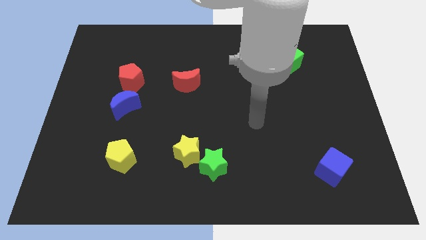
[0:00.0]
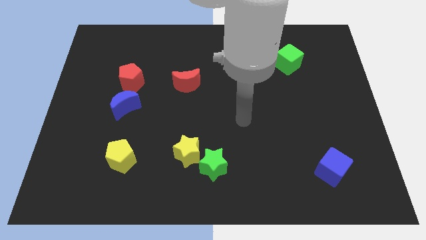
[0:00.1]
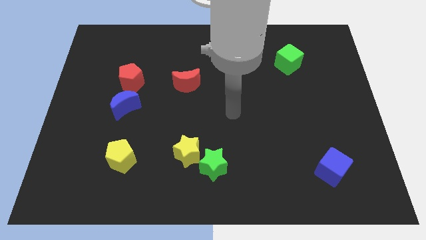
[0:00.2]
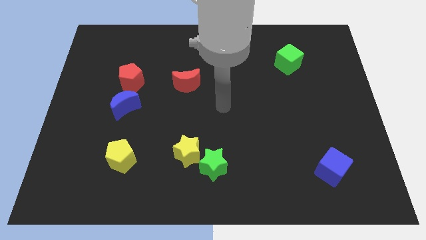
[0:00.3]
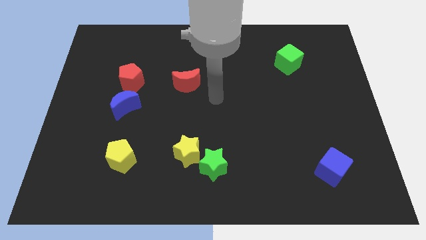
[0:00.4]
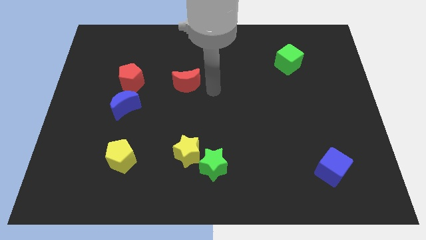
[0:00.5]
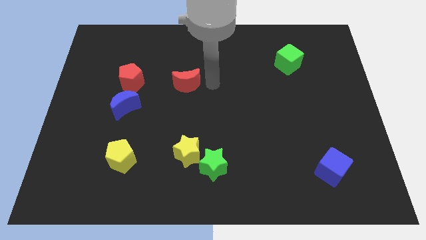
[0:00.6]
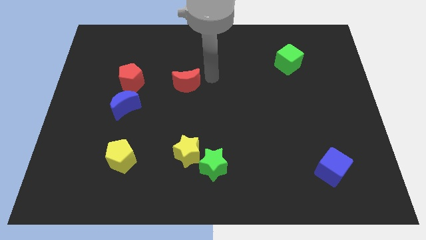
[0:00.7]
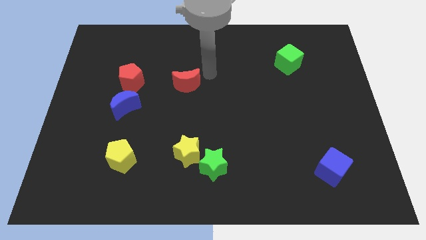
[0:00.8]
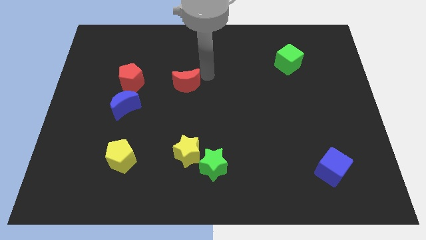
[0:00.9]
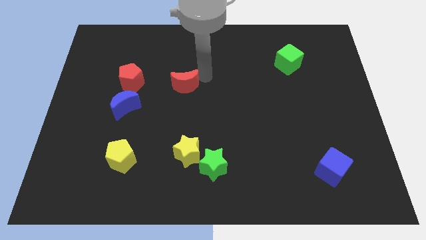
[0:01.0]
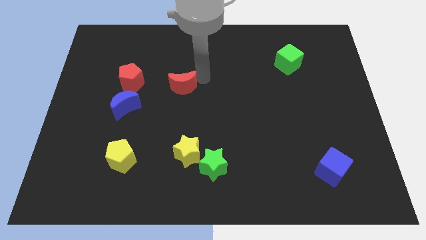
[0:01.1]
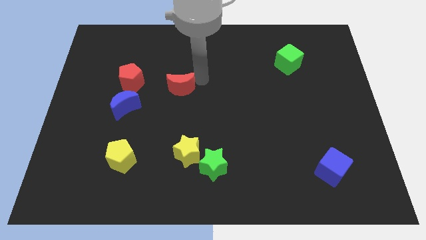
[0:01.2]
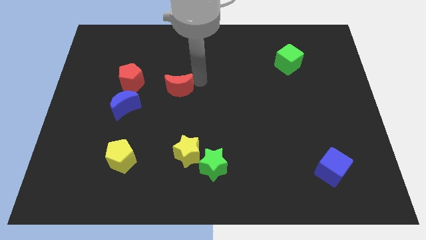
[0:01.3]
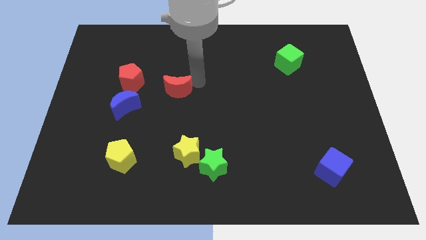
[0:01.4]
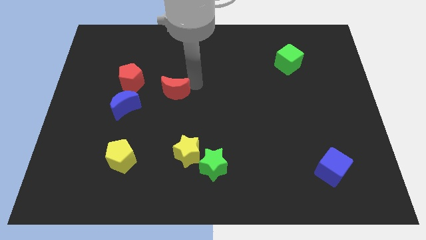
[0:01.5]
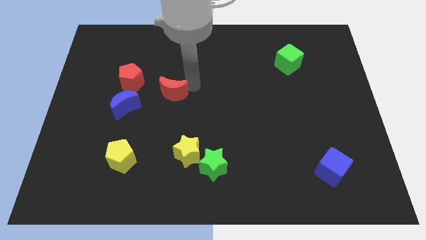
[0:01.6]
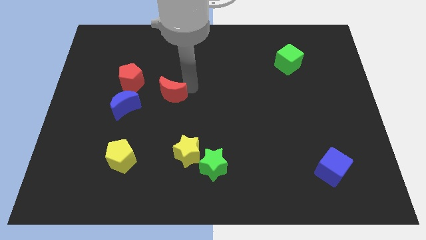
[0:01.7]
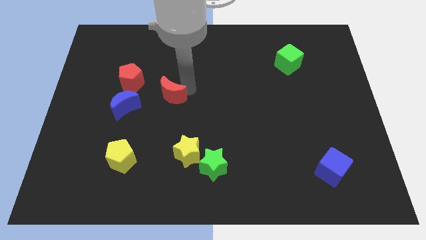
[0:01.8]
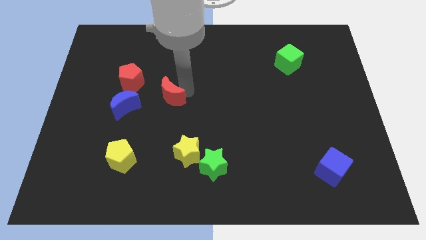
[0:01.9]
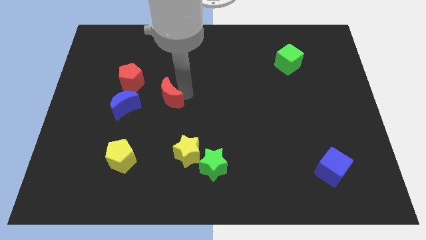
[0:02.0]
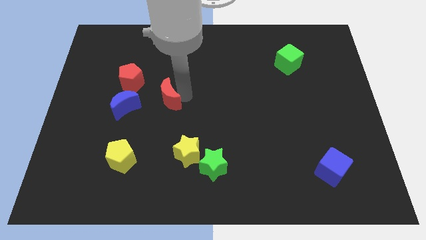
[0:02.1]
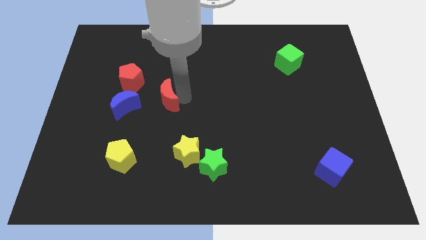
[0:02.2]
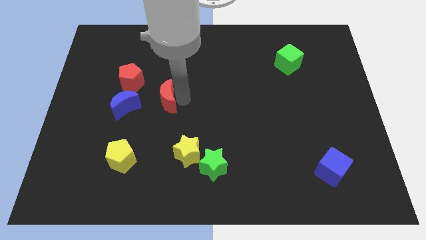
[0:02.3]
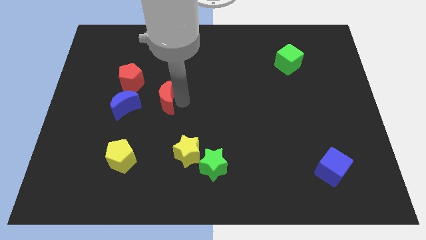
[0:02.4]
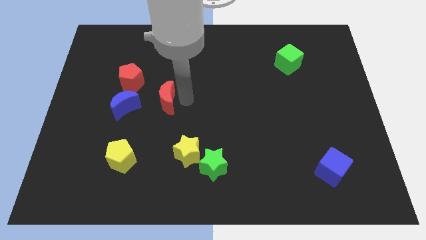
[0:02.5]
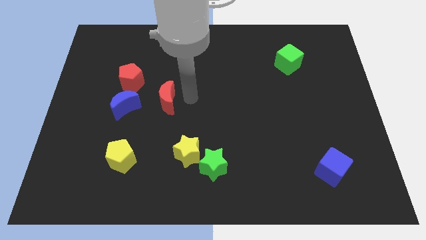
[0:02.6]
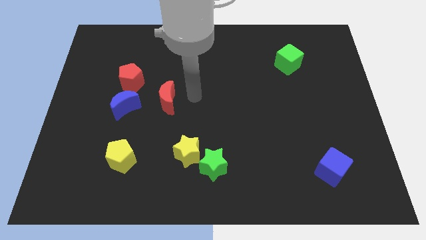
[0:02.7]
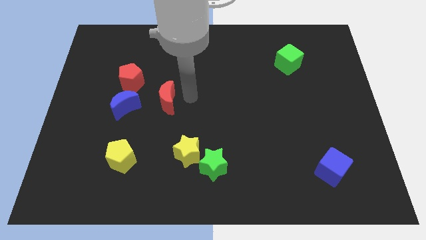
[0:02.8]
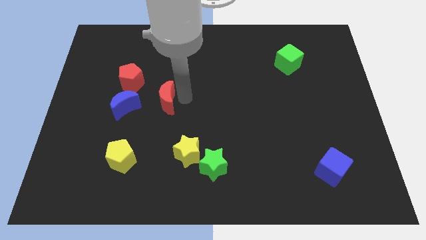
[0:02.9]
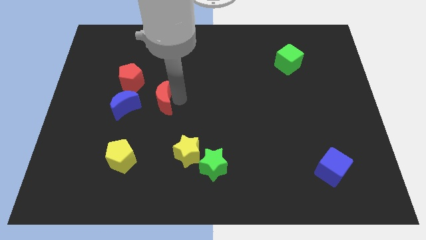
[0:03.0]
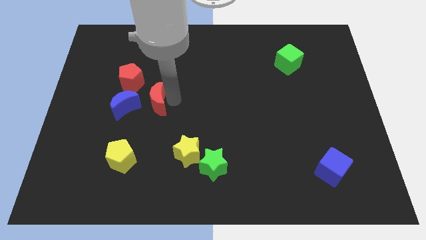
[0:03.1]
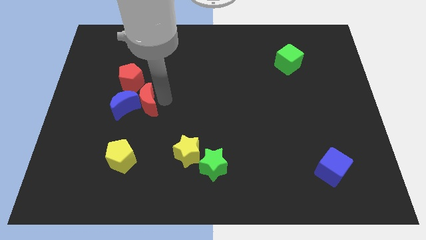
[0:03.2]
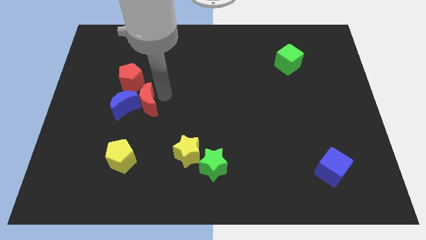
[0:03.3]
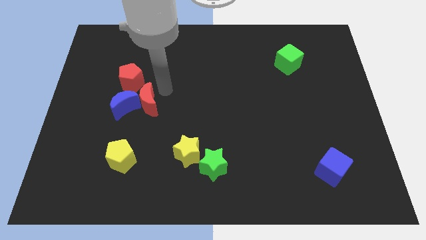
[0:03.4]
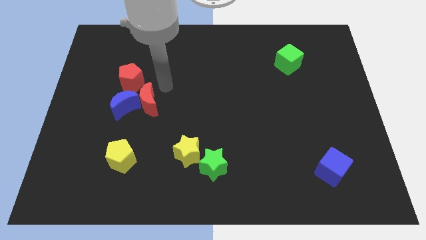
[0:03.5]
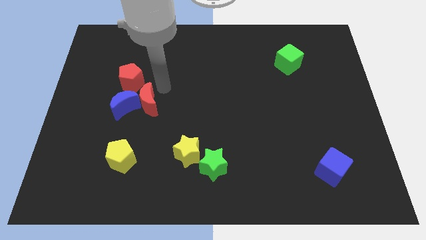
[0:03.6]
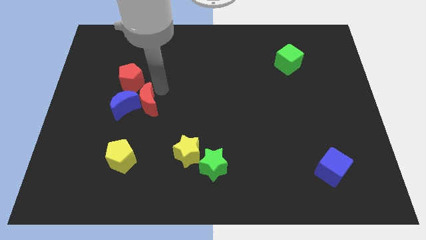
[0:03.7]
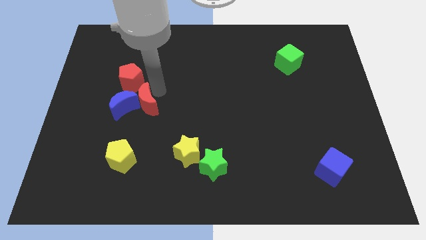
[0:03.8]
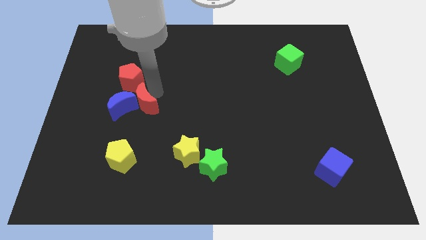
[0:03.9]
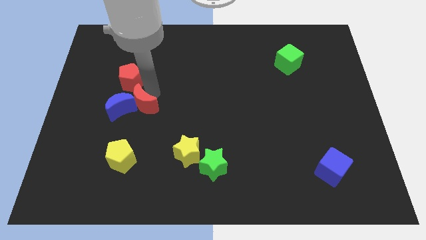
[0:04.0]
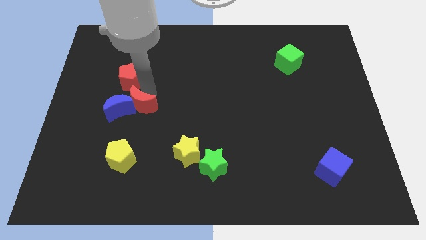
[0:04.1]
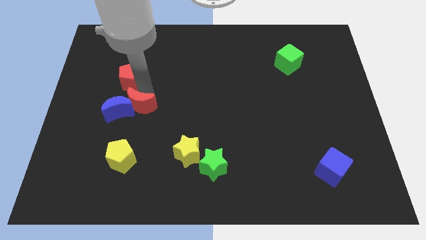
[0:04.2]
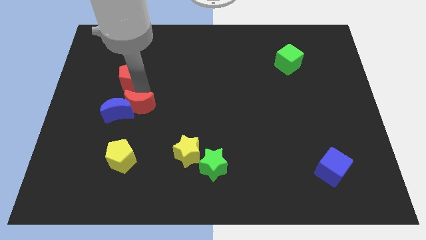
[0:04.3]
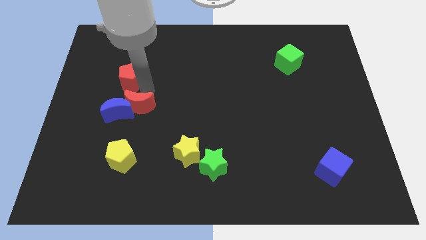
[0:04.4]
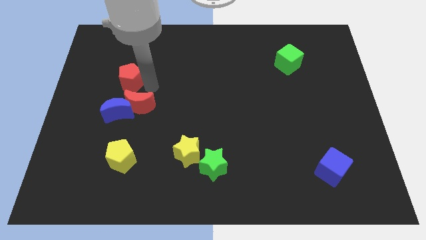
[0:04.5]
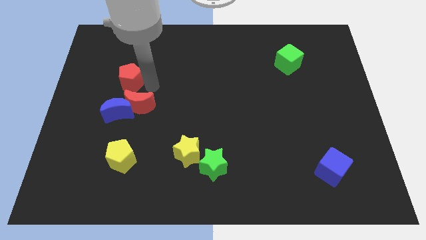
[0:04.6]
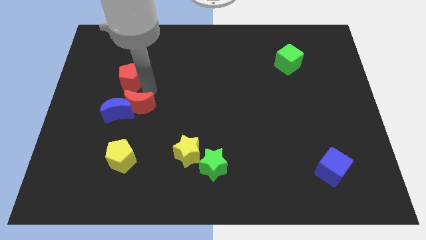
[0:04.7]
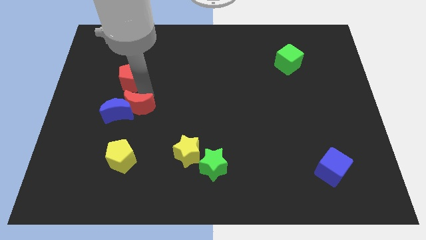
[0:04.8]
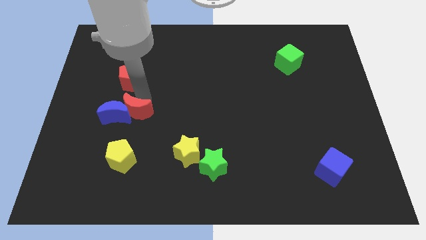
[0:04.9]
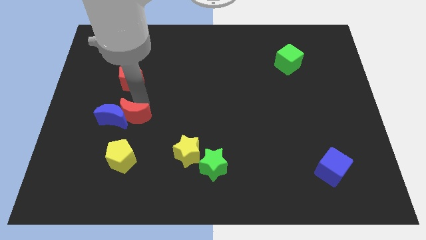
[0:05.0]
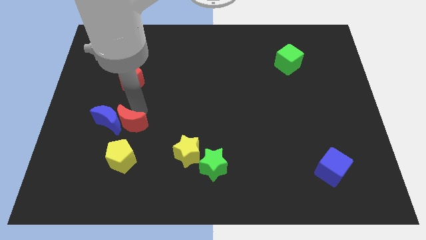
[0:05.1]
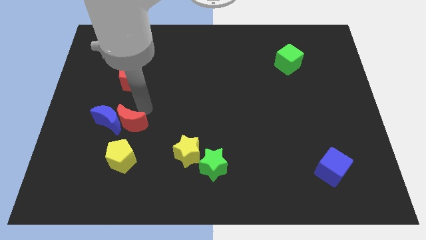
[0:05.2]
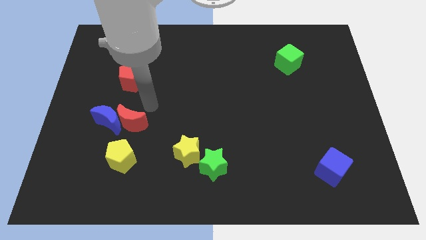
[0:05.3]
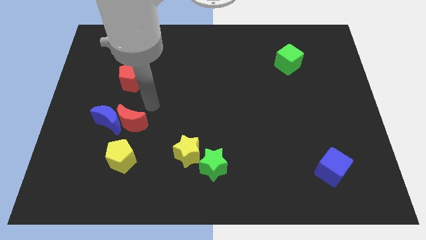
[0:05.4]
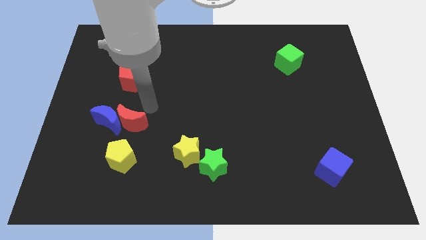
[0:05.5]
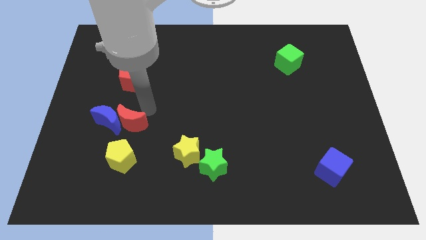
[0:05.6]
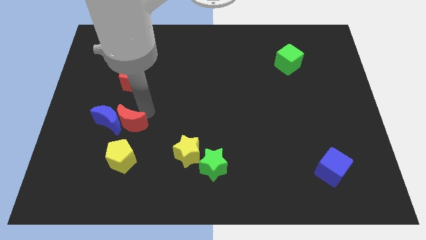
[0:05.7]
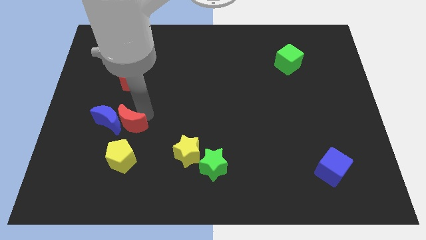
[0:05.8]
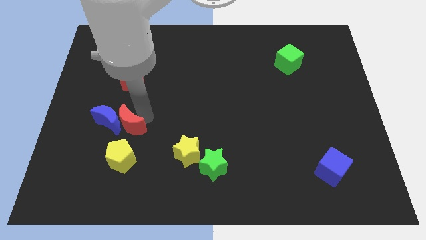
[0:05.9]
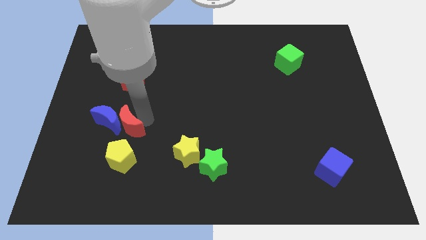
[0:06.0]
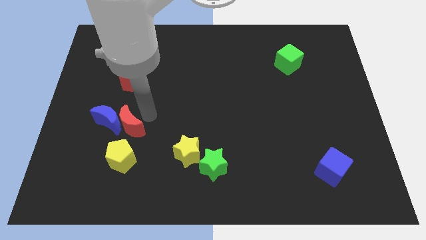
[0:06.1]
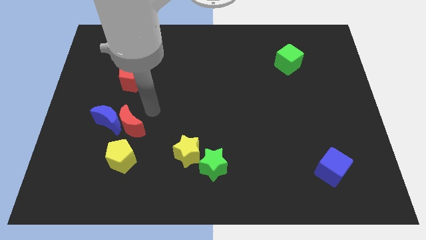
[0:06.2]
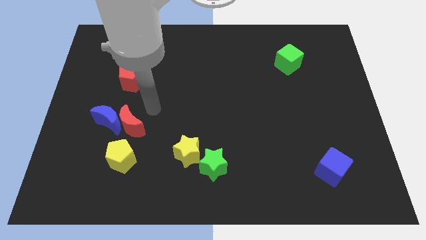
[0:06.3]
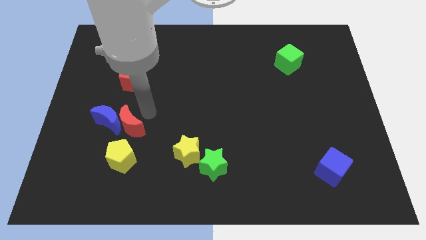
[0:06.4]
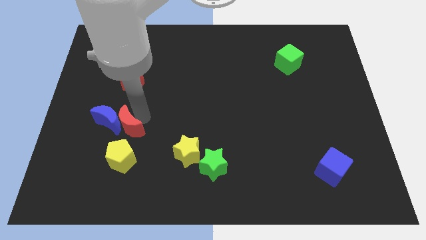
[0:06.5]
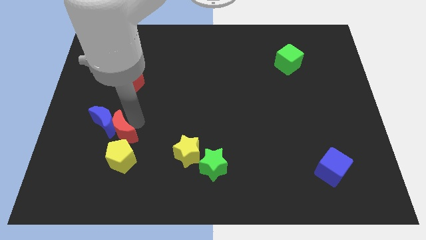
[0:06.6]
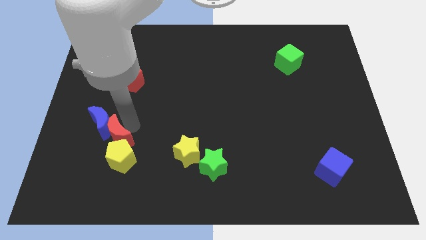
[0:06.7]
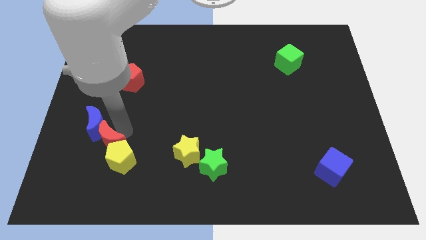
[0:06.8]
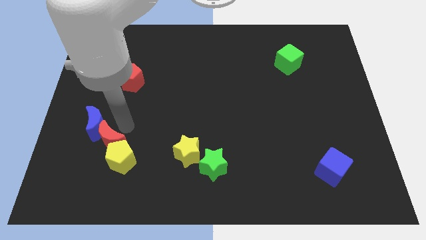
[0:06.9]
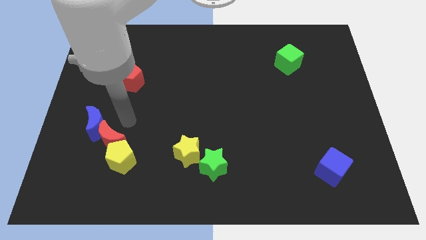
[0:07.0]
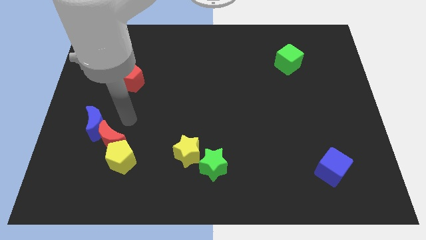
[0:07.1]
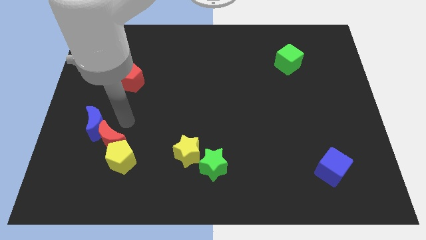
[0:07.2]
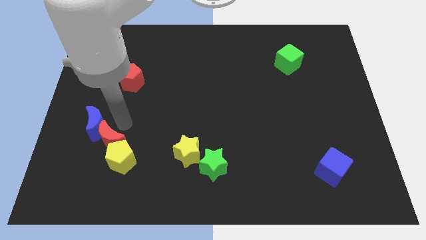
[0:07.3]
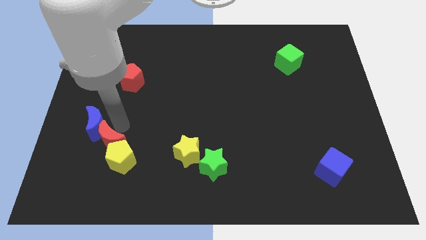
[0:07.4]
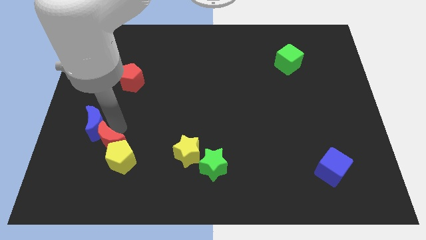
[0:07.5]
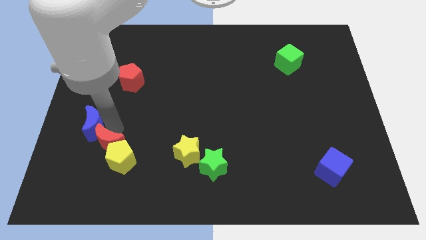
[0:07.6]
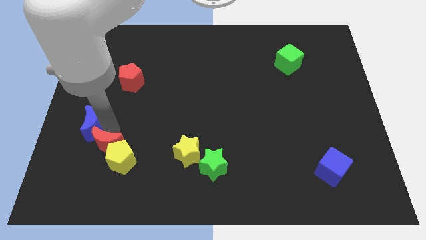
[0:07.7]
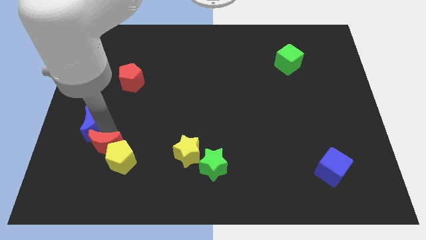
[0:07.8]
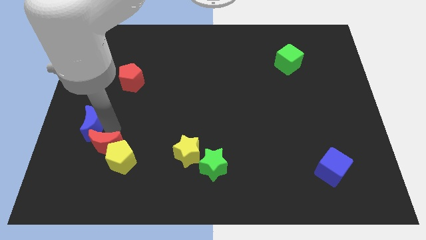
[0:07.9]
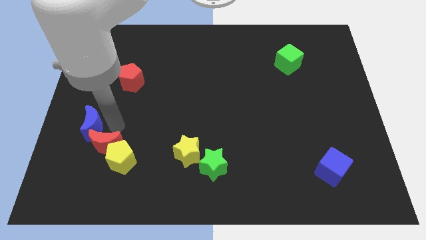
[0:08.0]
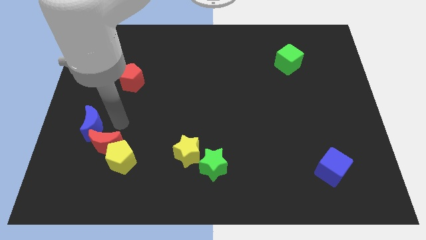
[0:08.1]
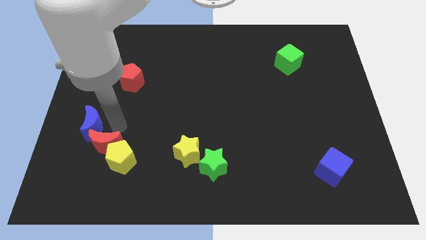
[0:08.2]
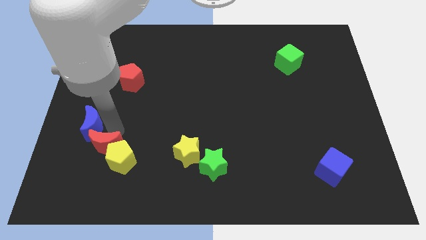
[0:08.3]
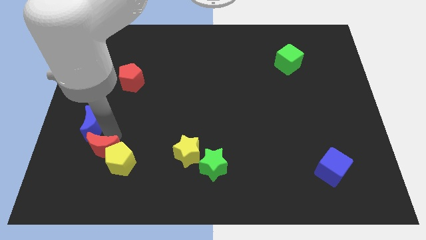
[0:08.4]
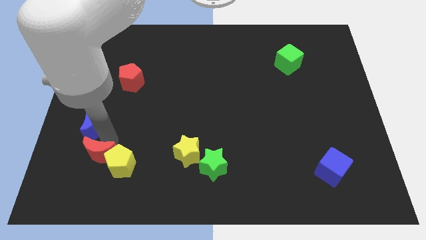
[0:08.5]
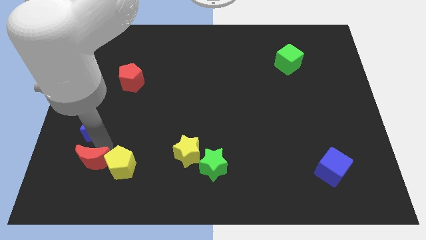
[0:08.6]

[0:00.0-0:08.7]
slide the red moon to the bottom left side of the yellow pentagon
